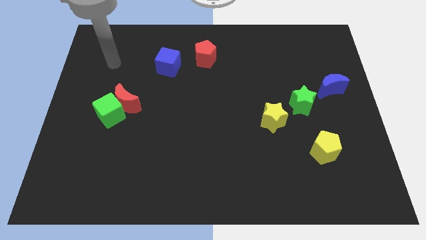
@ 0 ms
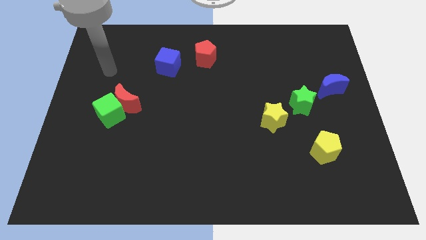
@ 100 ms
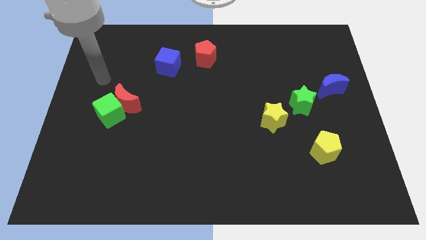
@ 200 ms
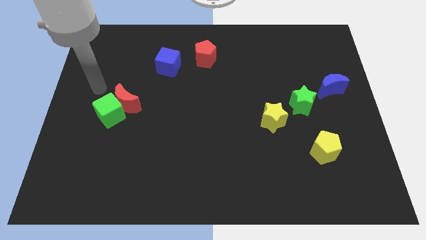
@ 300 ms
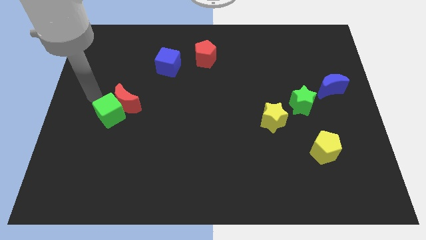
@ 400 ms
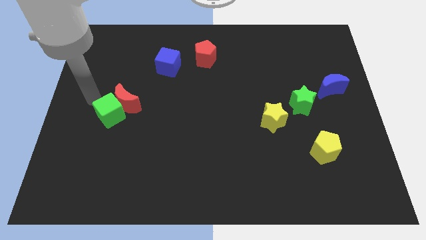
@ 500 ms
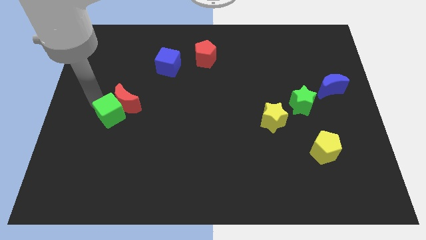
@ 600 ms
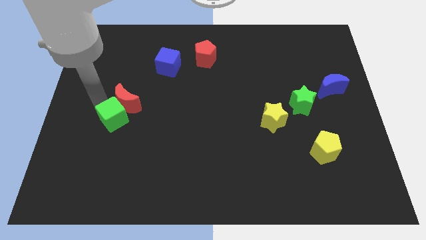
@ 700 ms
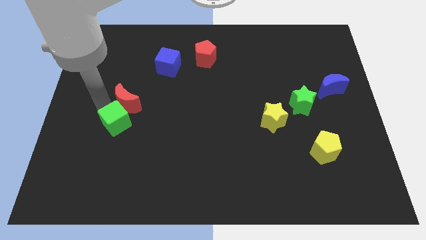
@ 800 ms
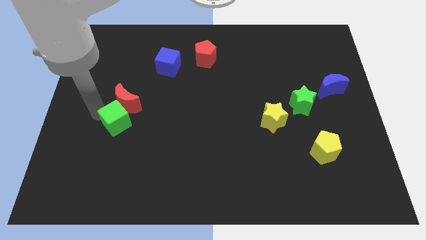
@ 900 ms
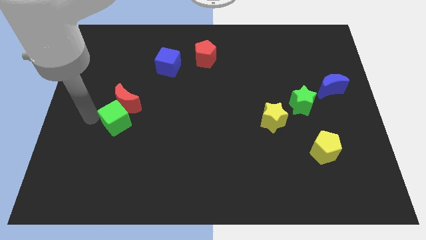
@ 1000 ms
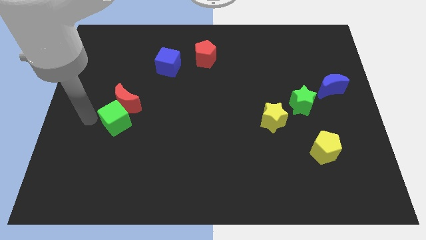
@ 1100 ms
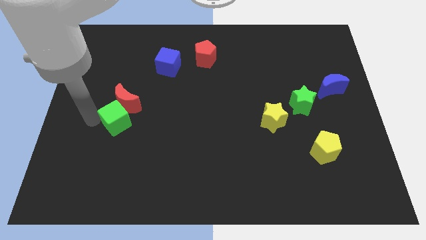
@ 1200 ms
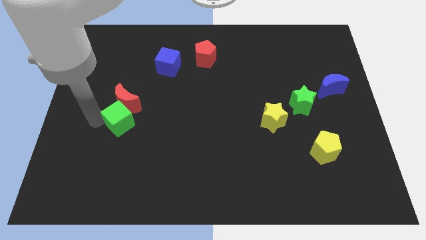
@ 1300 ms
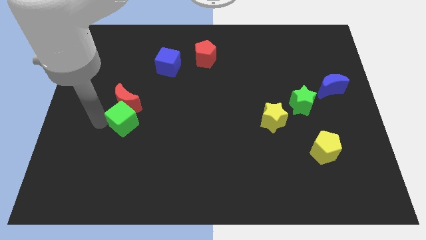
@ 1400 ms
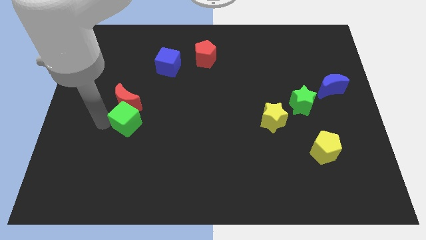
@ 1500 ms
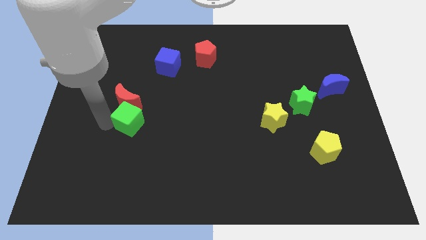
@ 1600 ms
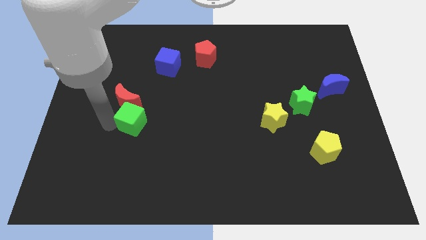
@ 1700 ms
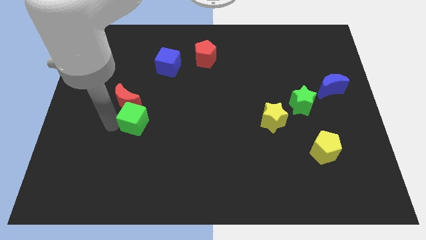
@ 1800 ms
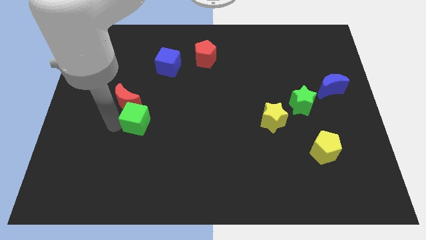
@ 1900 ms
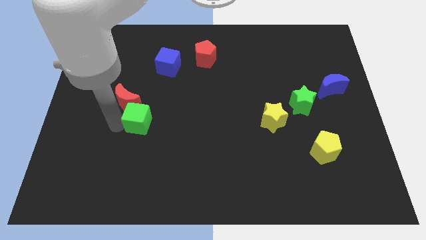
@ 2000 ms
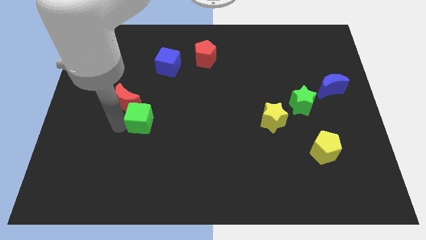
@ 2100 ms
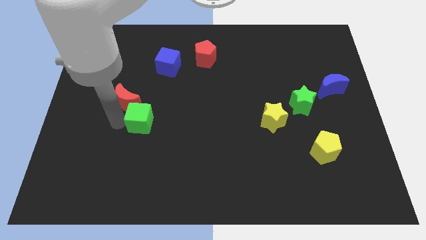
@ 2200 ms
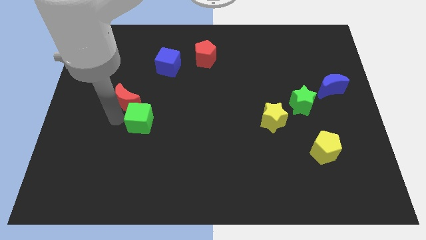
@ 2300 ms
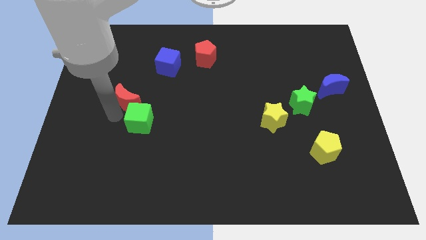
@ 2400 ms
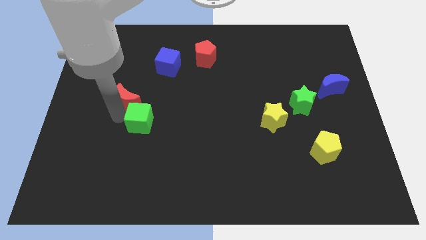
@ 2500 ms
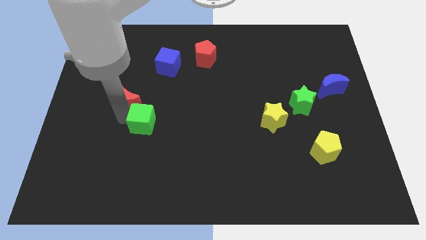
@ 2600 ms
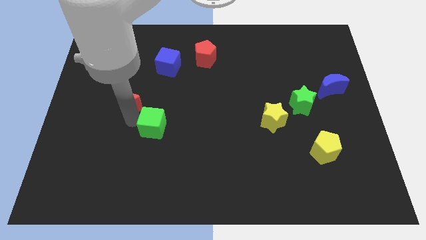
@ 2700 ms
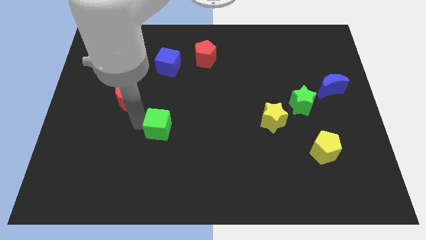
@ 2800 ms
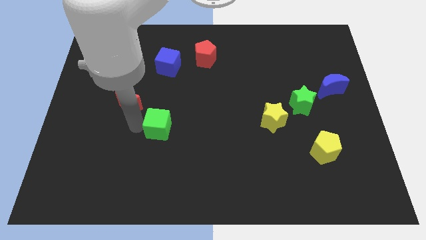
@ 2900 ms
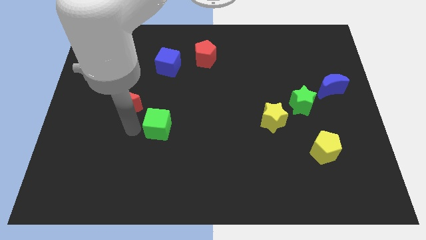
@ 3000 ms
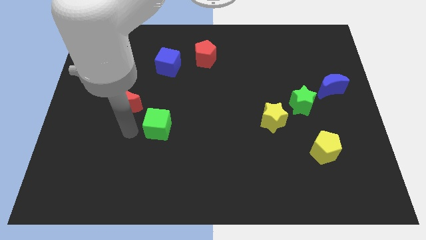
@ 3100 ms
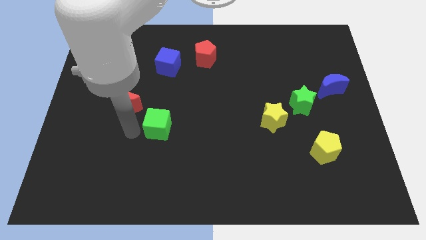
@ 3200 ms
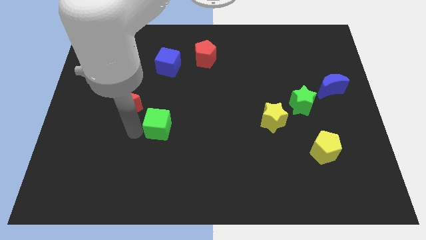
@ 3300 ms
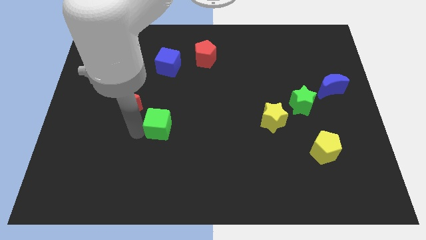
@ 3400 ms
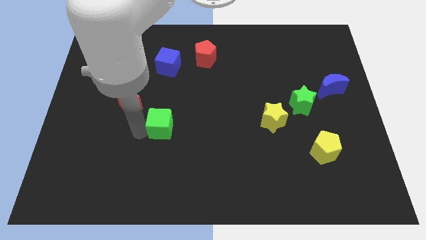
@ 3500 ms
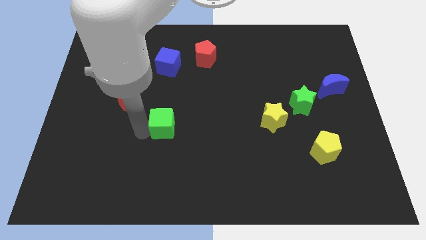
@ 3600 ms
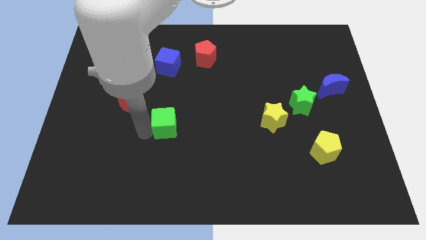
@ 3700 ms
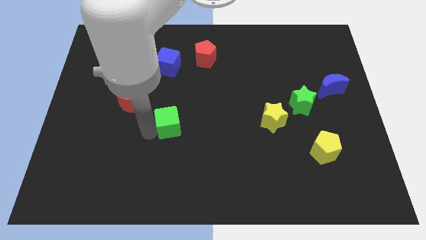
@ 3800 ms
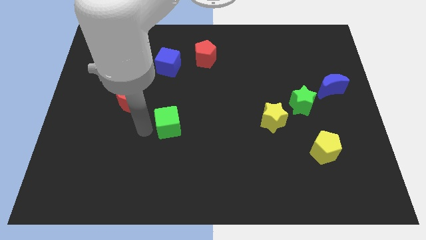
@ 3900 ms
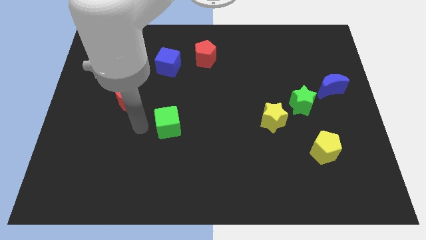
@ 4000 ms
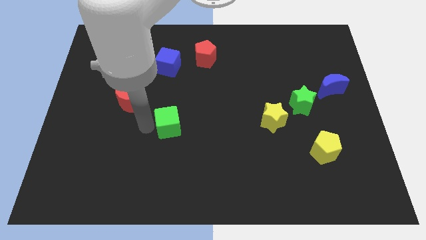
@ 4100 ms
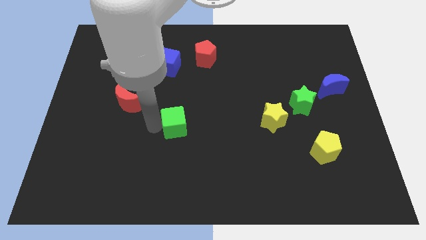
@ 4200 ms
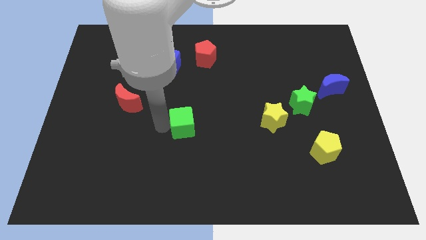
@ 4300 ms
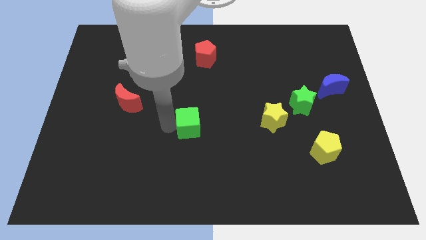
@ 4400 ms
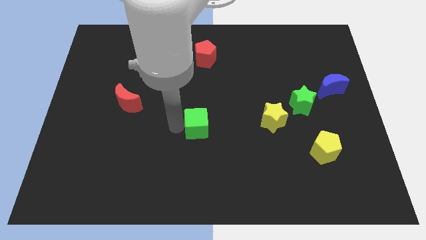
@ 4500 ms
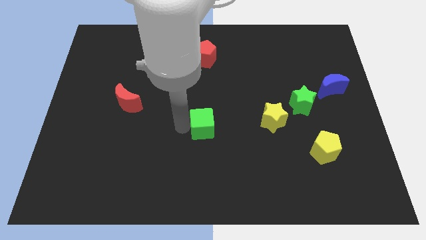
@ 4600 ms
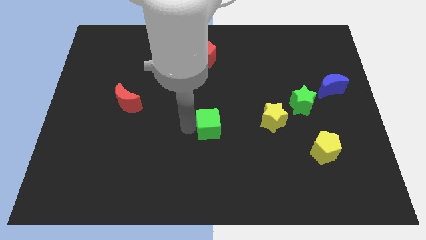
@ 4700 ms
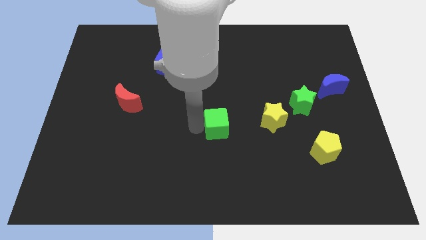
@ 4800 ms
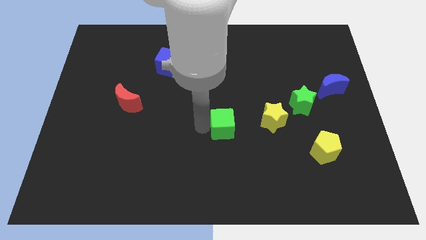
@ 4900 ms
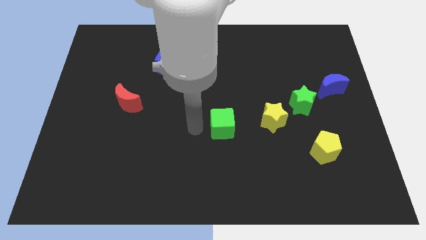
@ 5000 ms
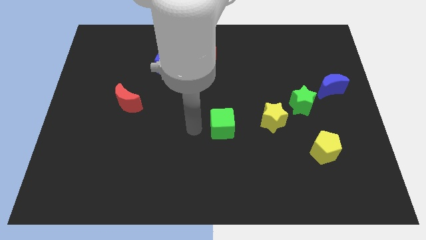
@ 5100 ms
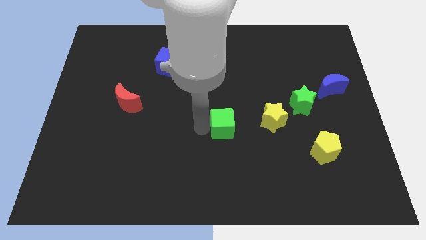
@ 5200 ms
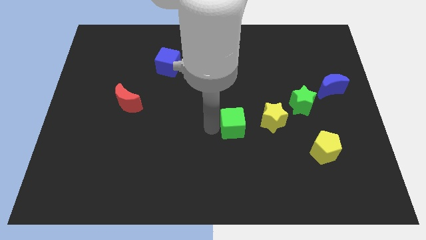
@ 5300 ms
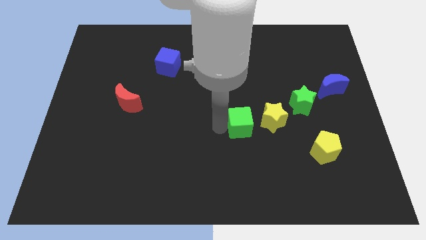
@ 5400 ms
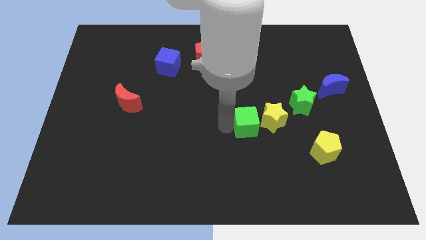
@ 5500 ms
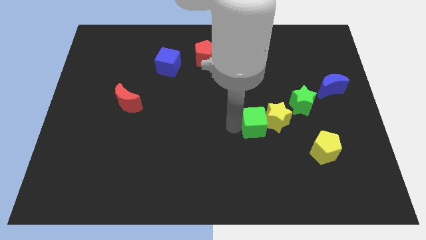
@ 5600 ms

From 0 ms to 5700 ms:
move the green cube close to the yellow star

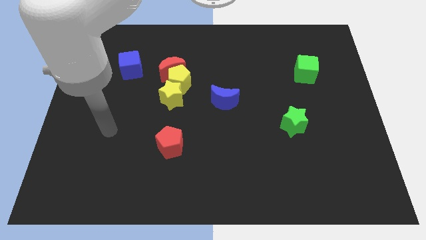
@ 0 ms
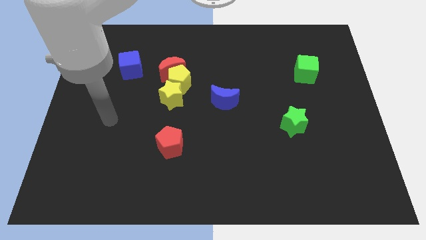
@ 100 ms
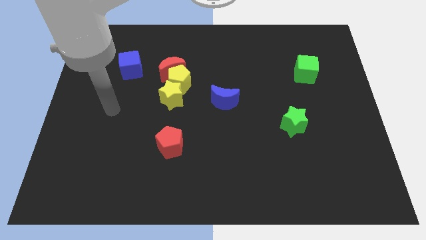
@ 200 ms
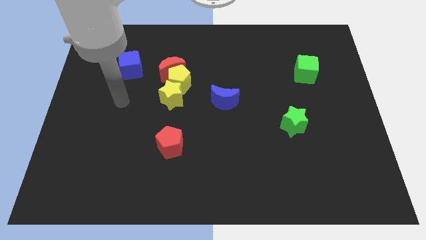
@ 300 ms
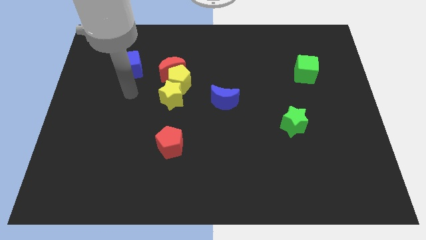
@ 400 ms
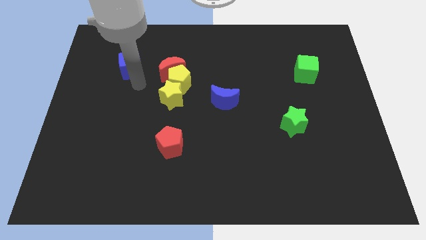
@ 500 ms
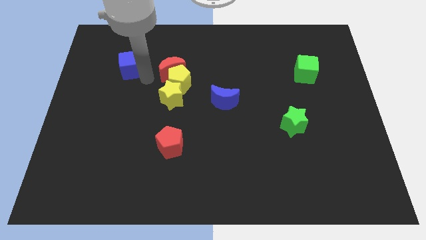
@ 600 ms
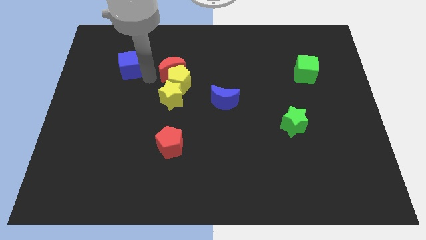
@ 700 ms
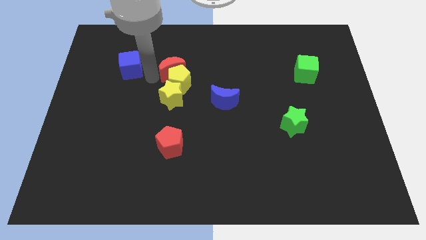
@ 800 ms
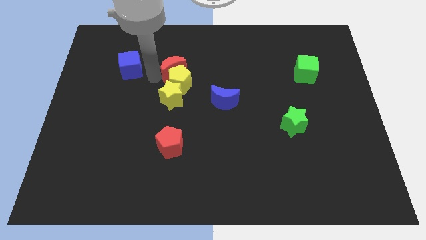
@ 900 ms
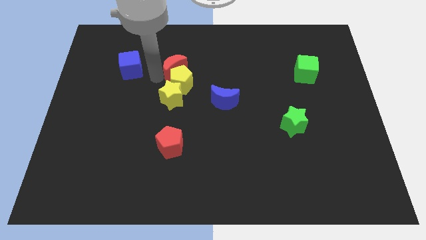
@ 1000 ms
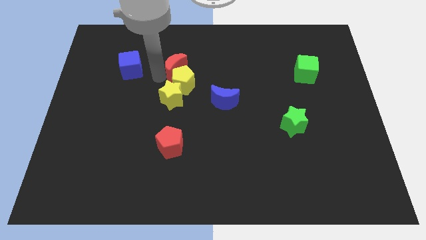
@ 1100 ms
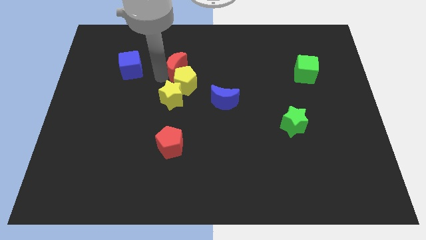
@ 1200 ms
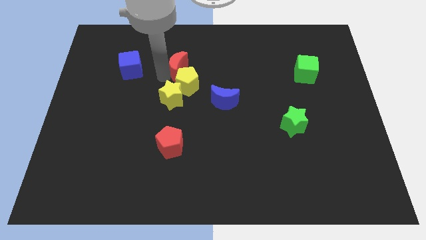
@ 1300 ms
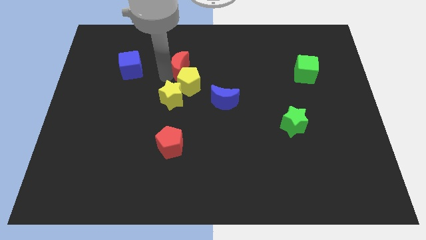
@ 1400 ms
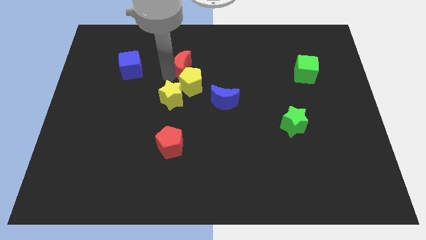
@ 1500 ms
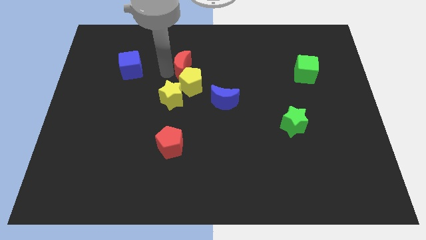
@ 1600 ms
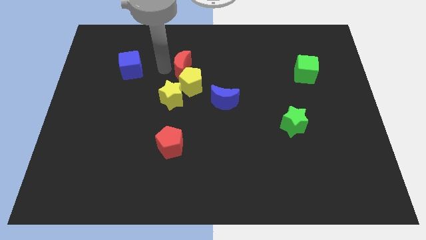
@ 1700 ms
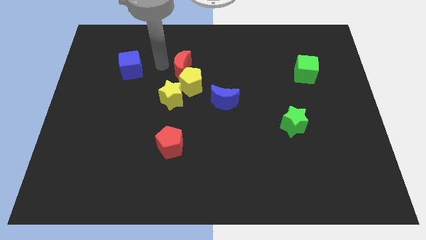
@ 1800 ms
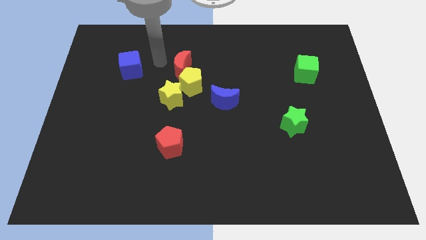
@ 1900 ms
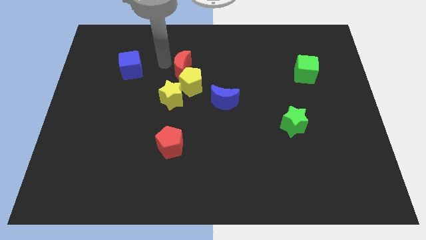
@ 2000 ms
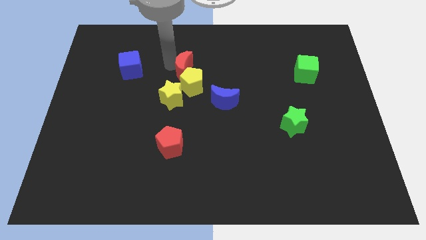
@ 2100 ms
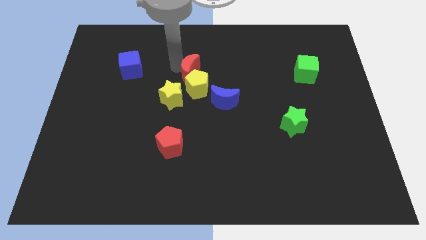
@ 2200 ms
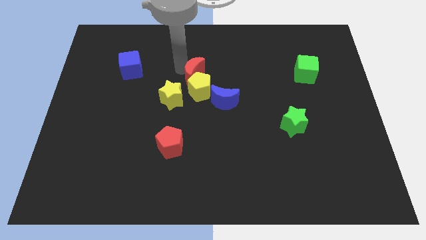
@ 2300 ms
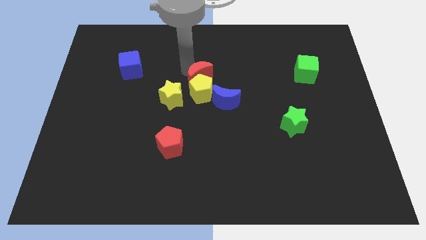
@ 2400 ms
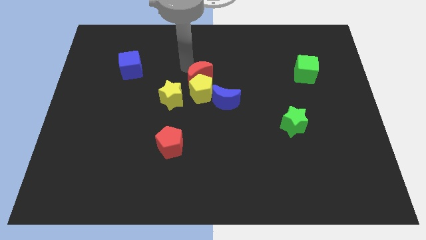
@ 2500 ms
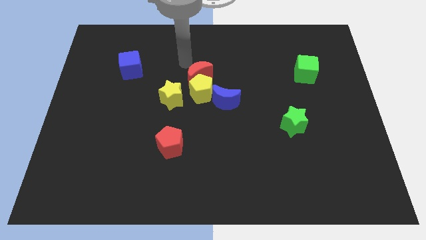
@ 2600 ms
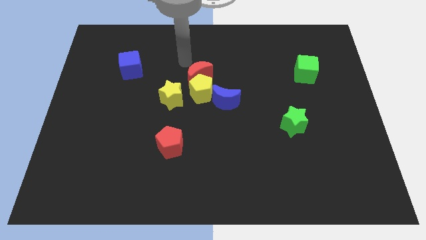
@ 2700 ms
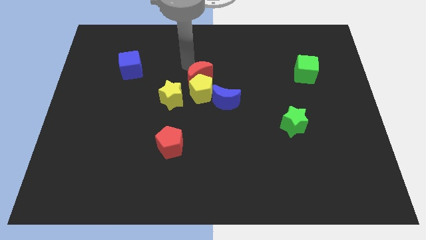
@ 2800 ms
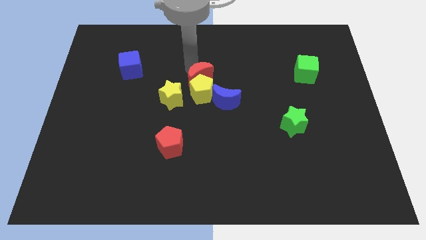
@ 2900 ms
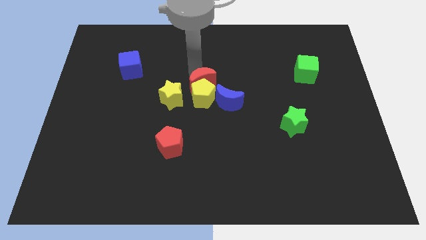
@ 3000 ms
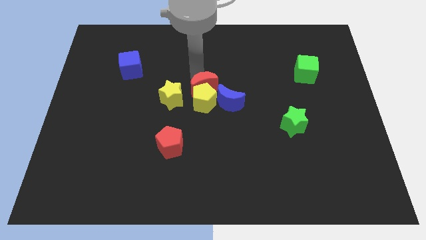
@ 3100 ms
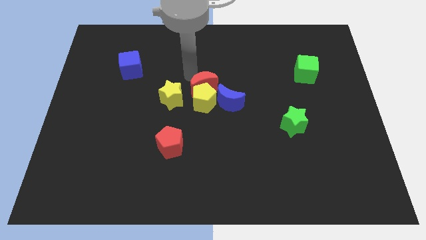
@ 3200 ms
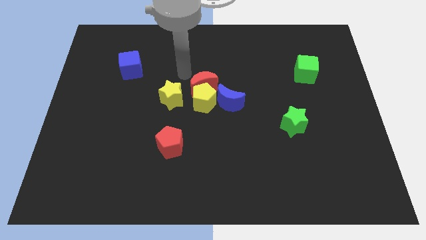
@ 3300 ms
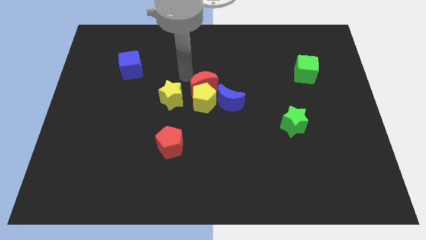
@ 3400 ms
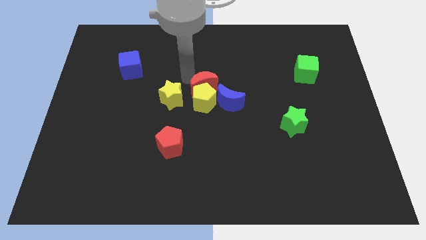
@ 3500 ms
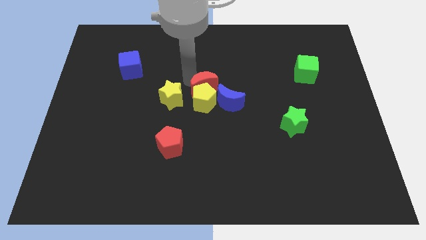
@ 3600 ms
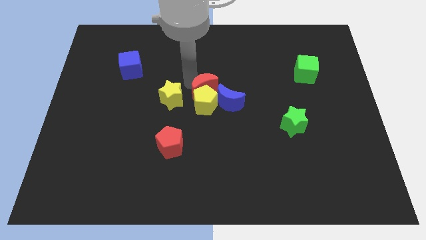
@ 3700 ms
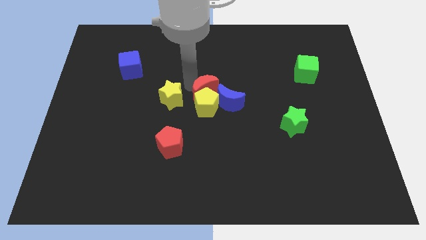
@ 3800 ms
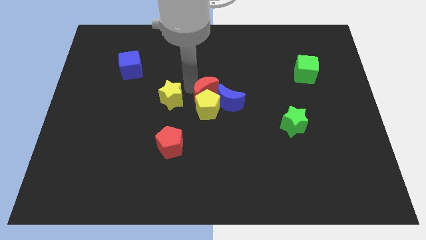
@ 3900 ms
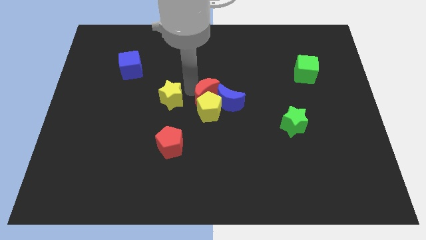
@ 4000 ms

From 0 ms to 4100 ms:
slide the red moon to the blue moon
